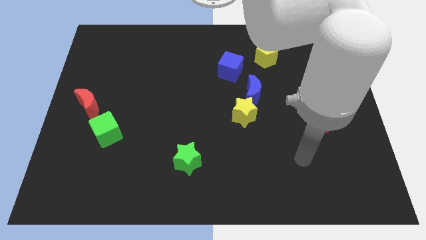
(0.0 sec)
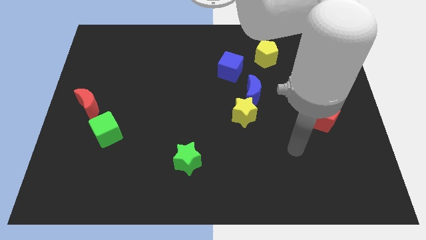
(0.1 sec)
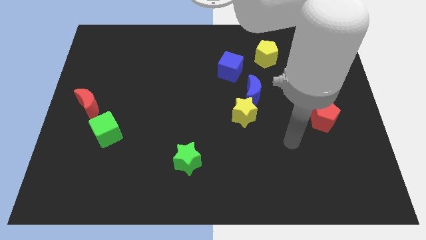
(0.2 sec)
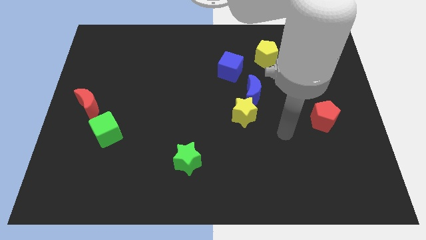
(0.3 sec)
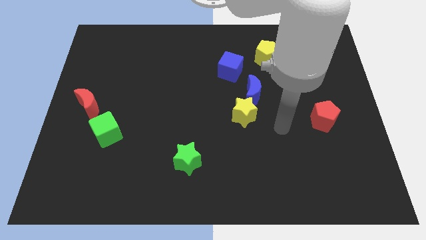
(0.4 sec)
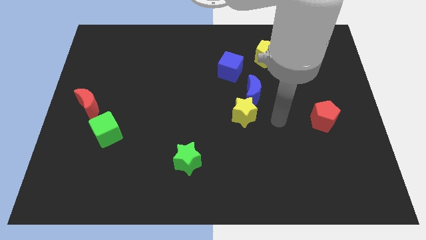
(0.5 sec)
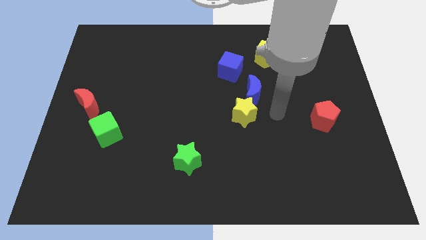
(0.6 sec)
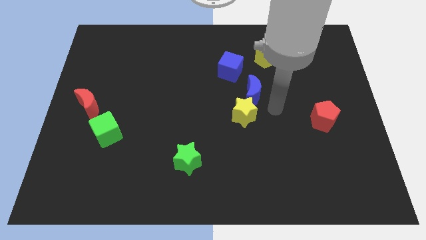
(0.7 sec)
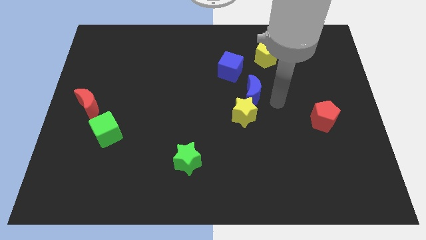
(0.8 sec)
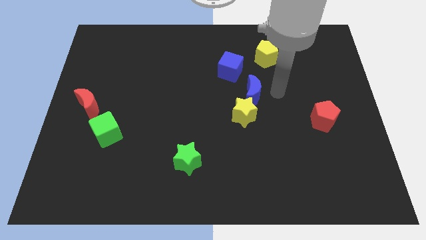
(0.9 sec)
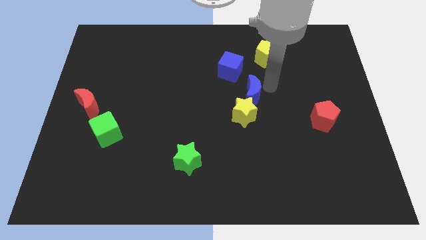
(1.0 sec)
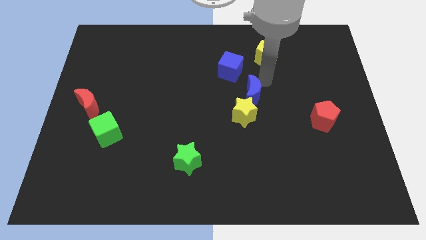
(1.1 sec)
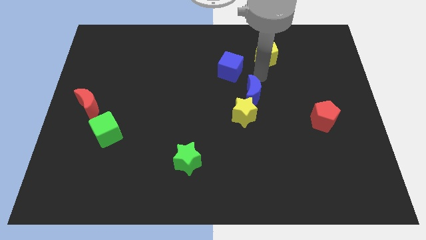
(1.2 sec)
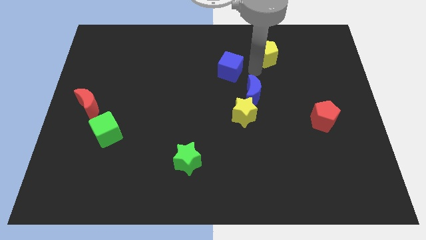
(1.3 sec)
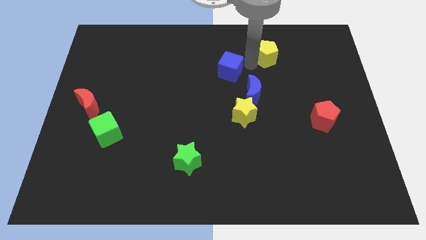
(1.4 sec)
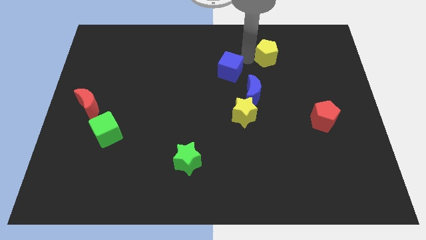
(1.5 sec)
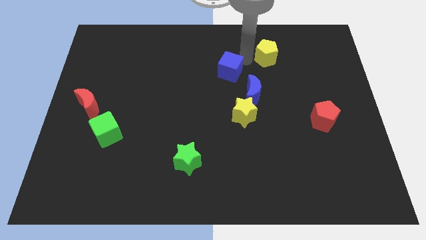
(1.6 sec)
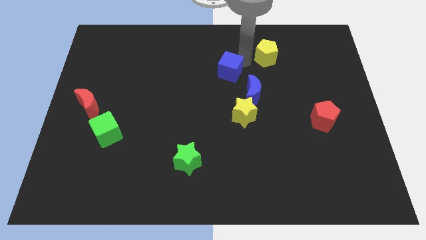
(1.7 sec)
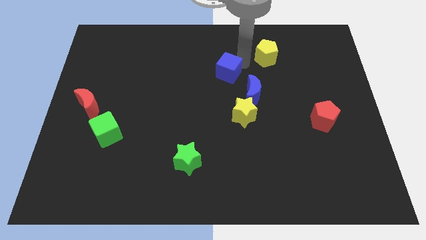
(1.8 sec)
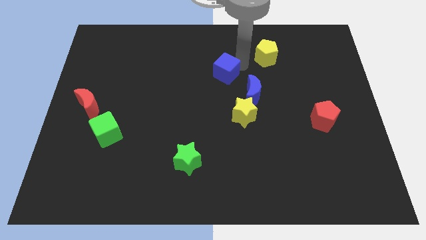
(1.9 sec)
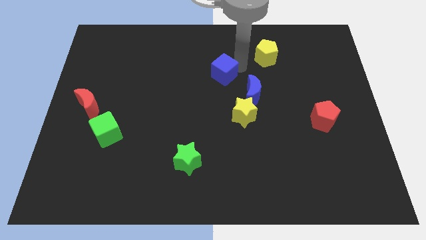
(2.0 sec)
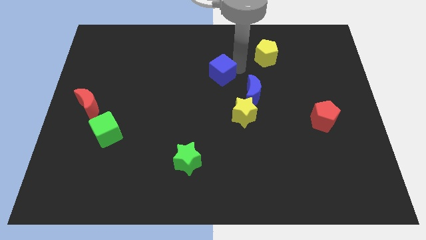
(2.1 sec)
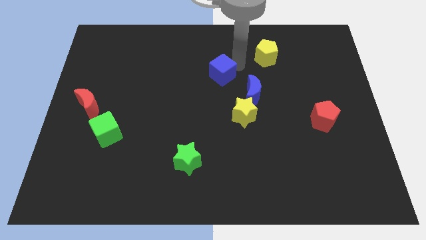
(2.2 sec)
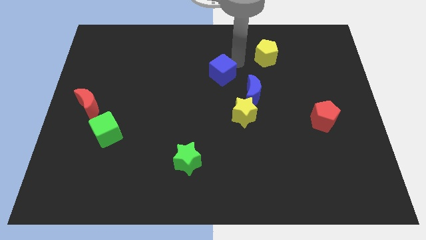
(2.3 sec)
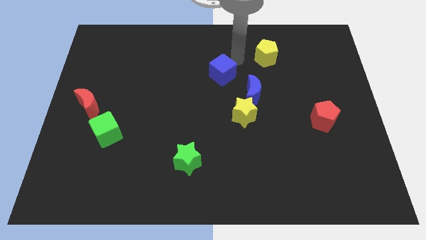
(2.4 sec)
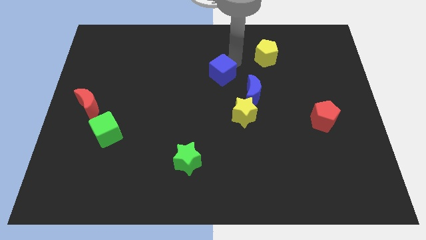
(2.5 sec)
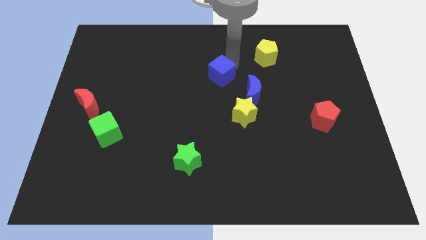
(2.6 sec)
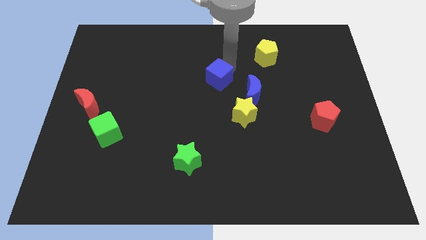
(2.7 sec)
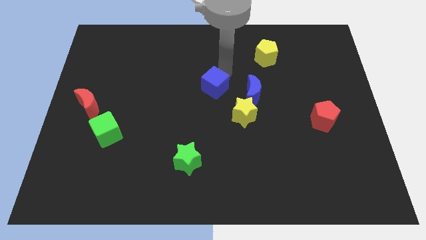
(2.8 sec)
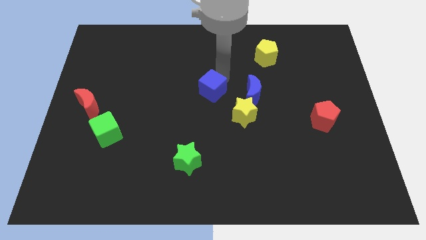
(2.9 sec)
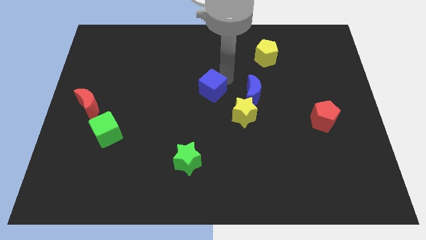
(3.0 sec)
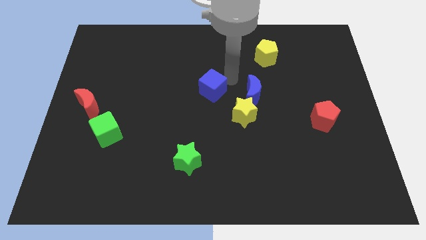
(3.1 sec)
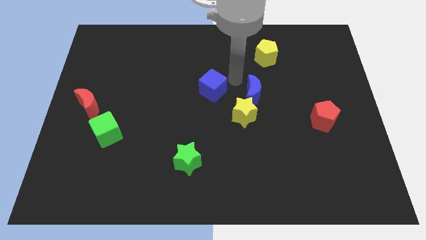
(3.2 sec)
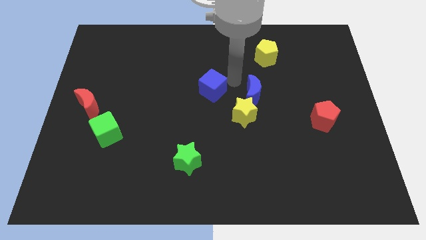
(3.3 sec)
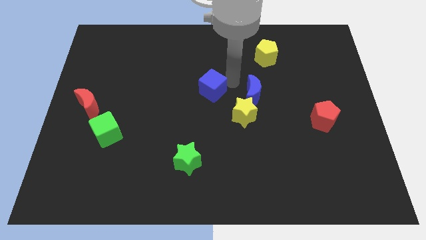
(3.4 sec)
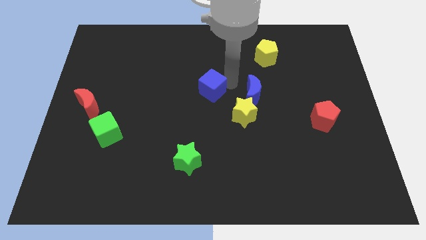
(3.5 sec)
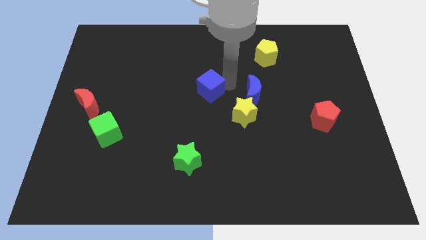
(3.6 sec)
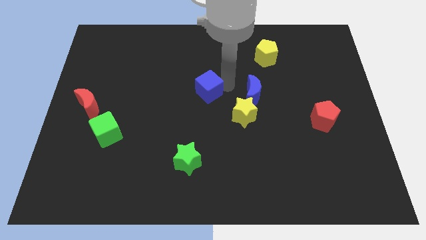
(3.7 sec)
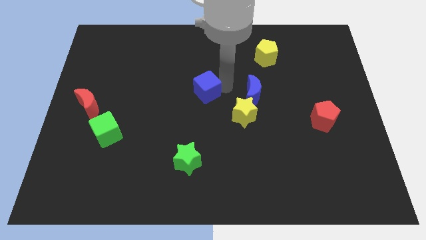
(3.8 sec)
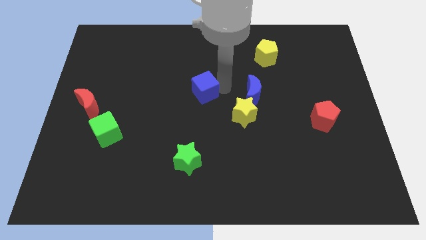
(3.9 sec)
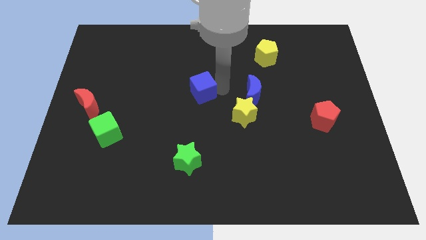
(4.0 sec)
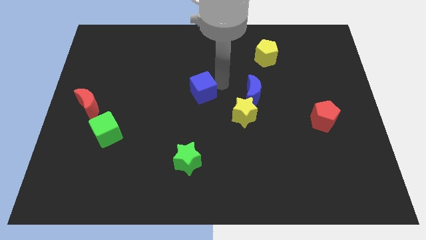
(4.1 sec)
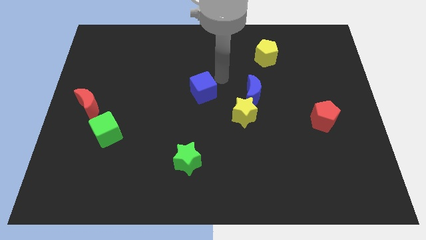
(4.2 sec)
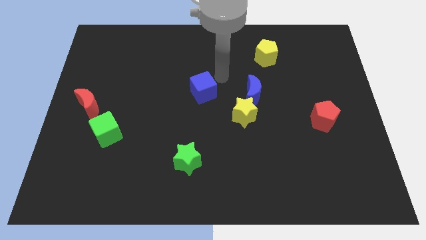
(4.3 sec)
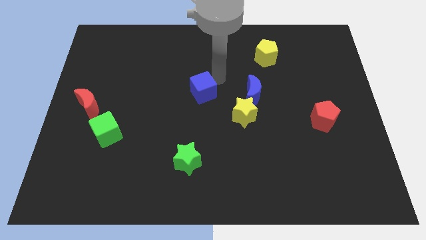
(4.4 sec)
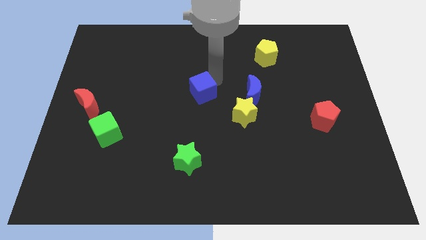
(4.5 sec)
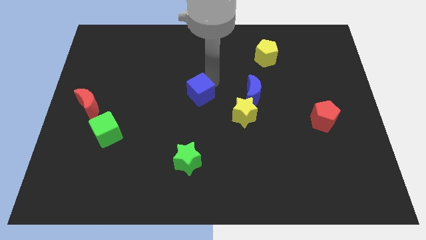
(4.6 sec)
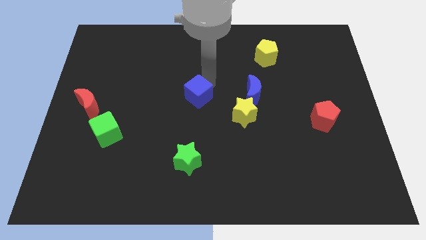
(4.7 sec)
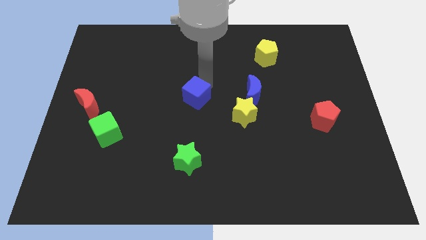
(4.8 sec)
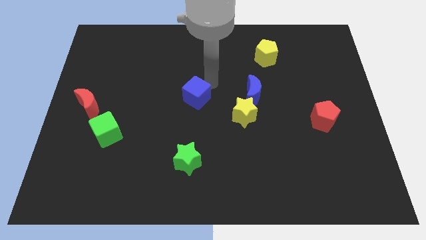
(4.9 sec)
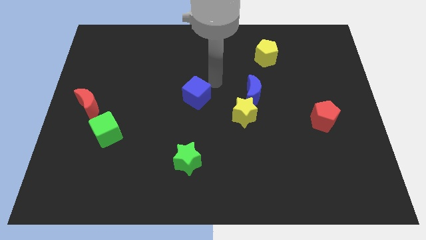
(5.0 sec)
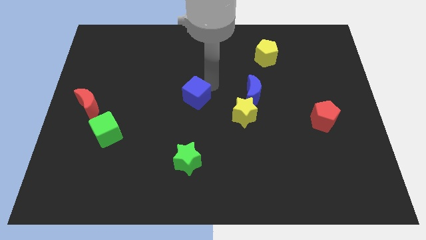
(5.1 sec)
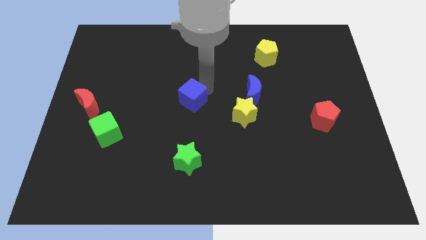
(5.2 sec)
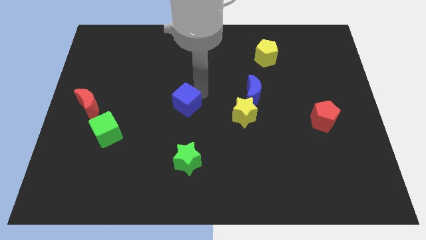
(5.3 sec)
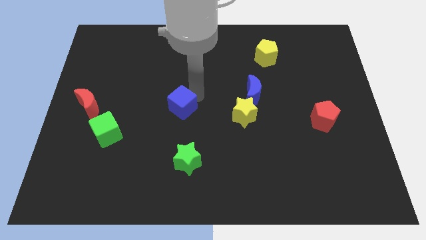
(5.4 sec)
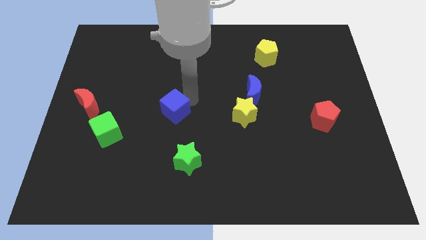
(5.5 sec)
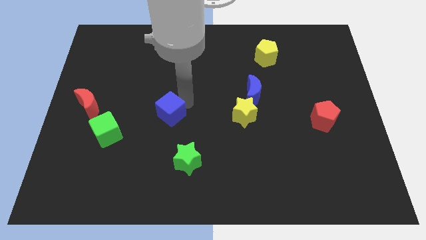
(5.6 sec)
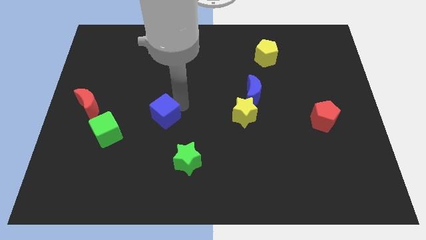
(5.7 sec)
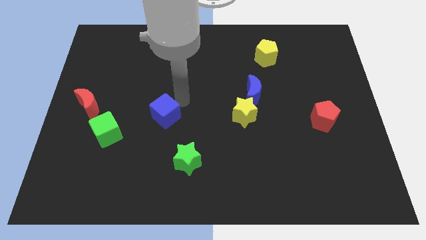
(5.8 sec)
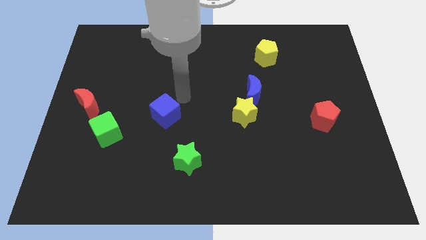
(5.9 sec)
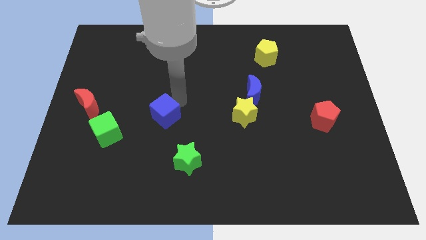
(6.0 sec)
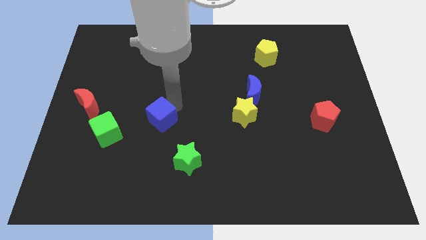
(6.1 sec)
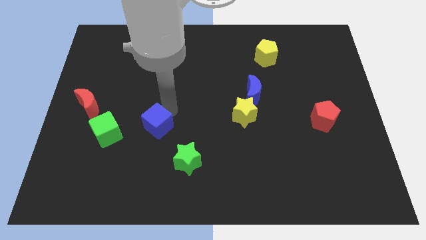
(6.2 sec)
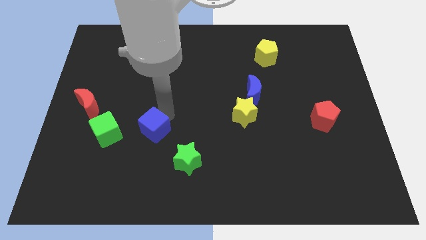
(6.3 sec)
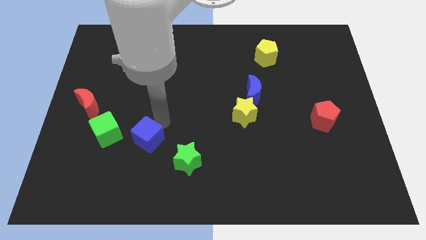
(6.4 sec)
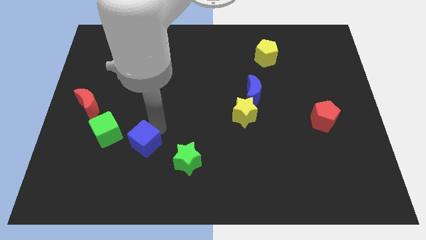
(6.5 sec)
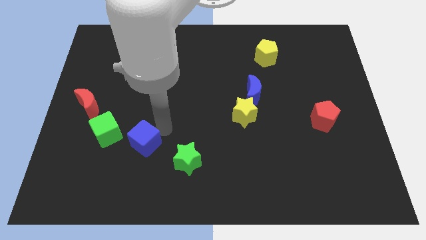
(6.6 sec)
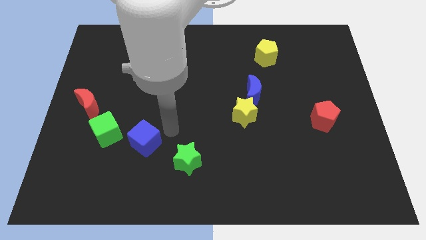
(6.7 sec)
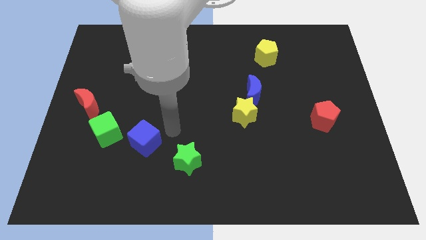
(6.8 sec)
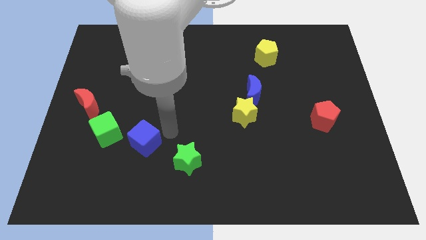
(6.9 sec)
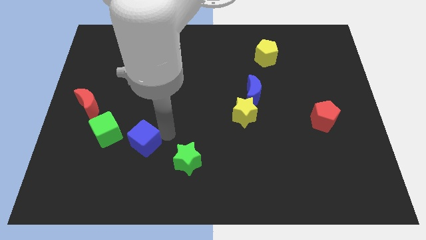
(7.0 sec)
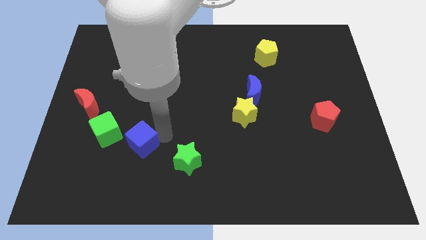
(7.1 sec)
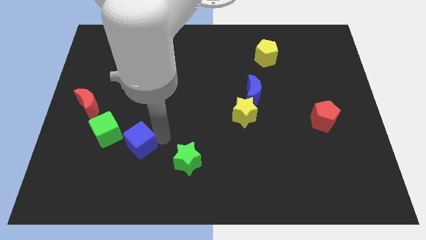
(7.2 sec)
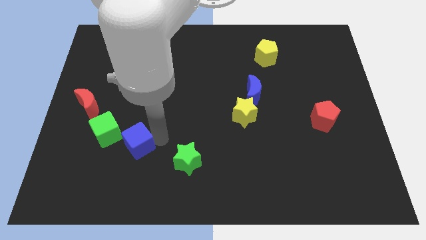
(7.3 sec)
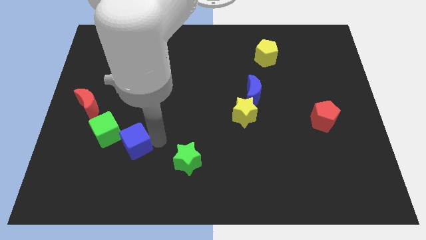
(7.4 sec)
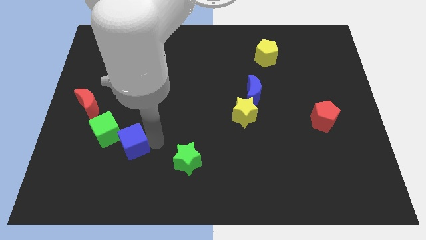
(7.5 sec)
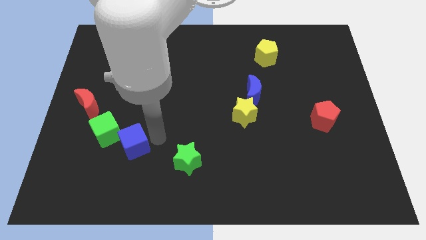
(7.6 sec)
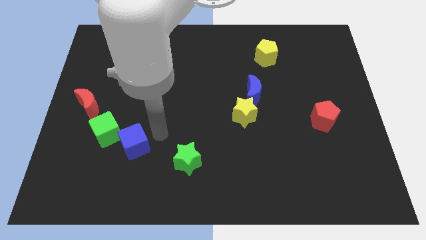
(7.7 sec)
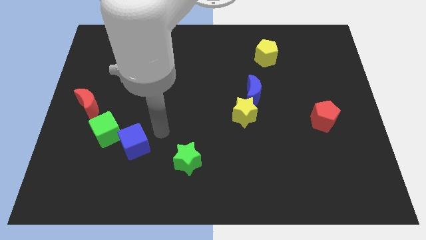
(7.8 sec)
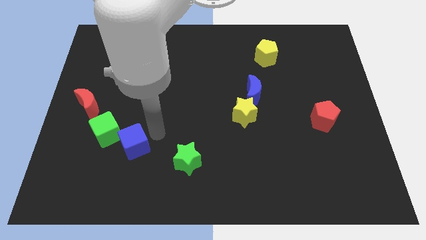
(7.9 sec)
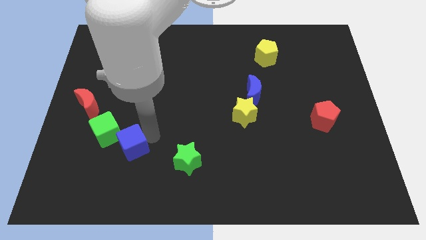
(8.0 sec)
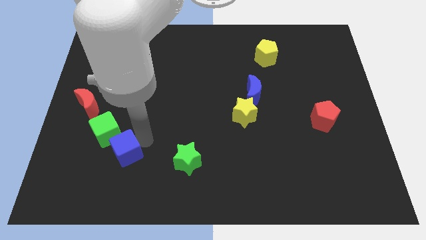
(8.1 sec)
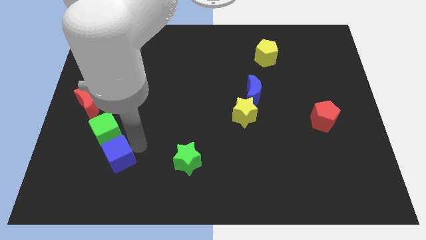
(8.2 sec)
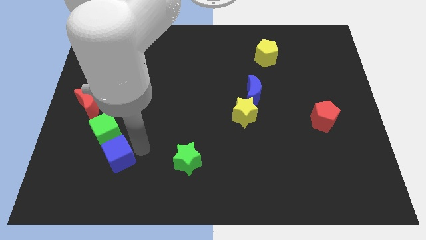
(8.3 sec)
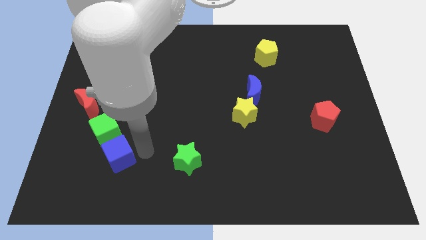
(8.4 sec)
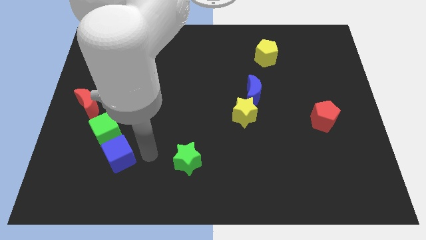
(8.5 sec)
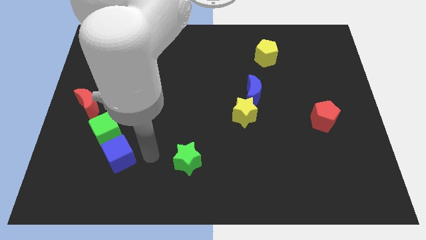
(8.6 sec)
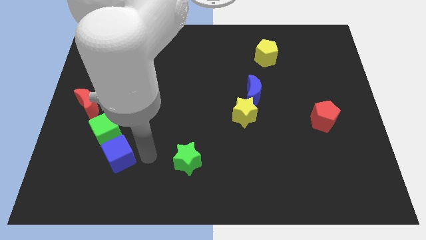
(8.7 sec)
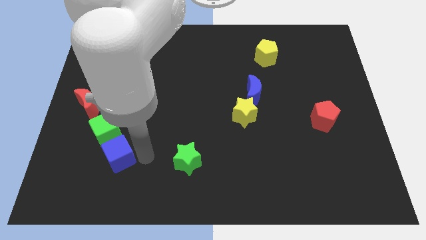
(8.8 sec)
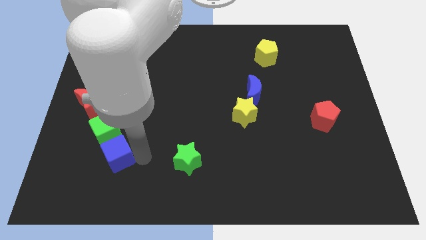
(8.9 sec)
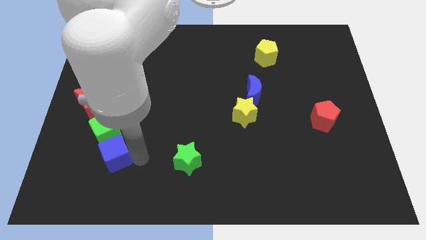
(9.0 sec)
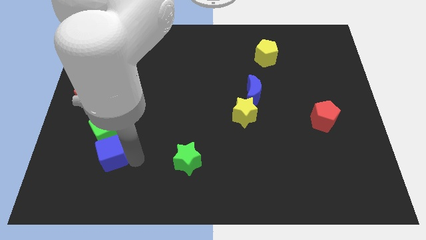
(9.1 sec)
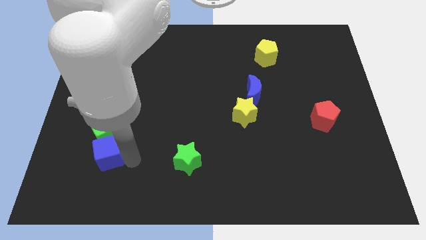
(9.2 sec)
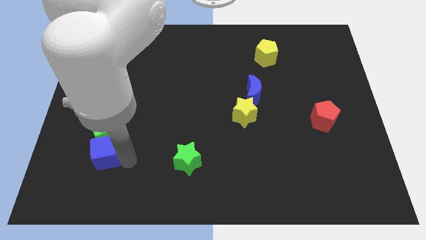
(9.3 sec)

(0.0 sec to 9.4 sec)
put the blue cube diagonally down and to the left of the green cube
